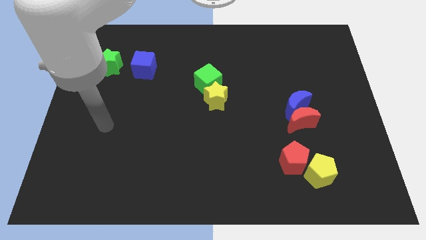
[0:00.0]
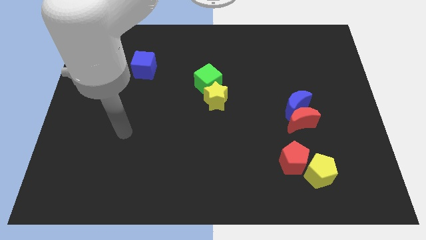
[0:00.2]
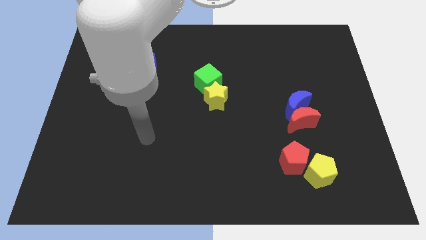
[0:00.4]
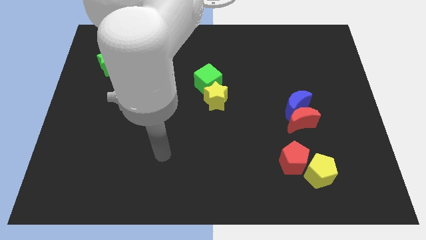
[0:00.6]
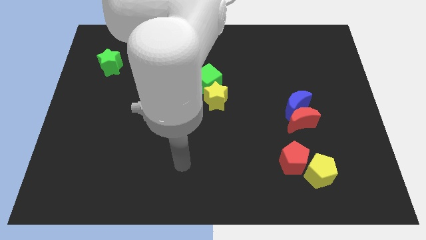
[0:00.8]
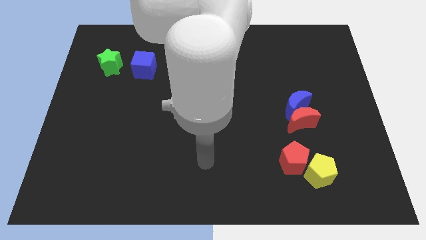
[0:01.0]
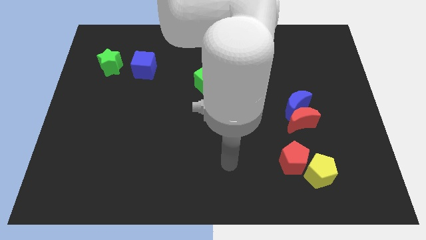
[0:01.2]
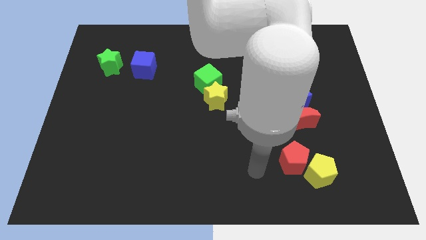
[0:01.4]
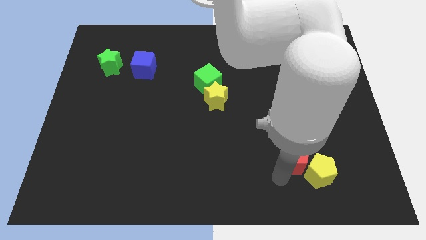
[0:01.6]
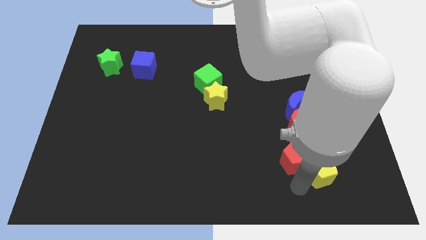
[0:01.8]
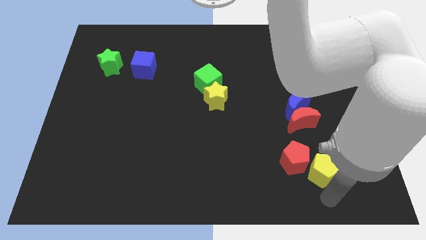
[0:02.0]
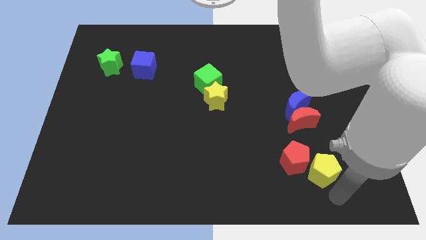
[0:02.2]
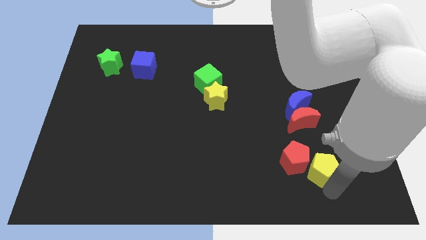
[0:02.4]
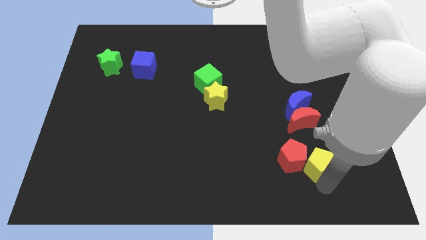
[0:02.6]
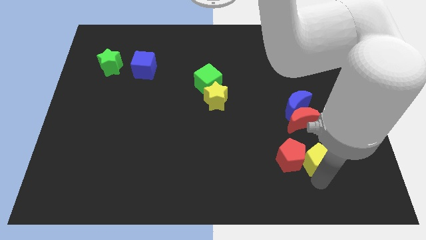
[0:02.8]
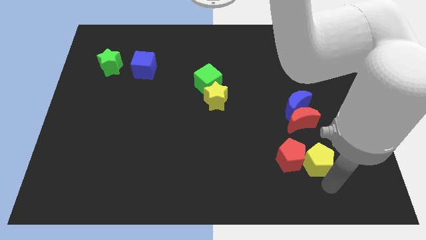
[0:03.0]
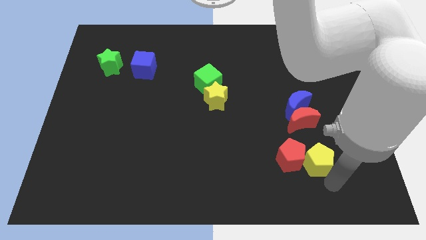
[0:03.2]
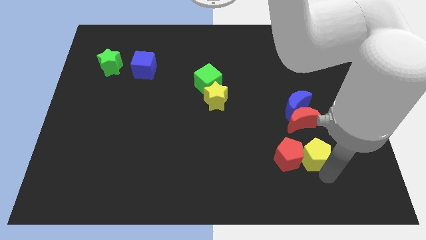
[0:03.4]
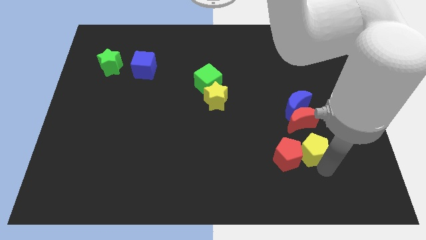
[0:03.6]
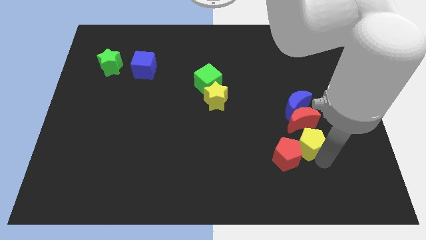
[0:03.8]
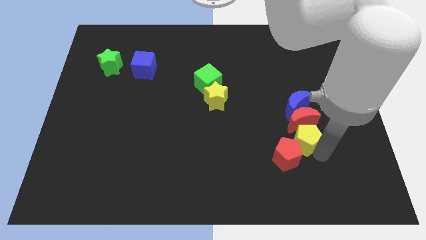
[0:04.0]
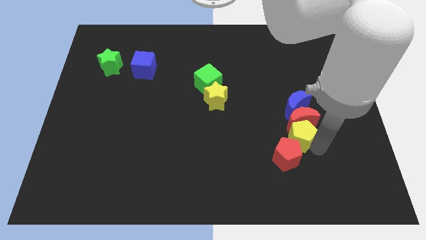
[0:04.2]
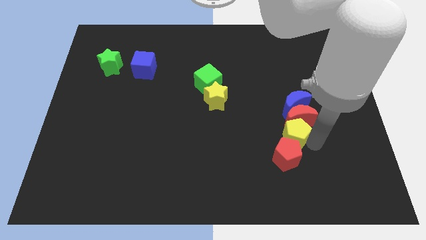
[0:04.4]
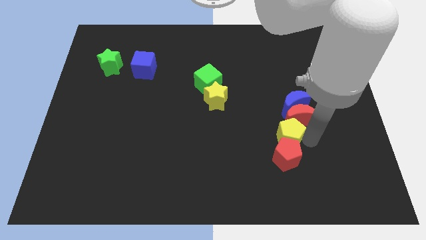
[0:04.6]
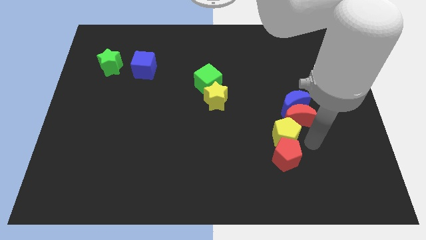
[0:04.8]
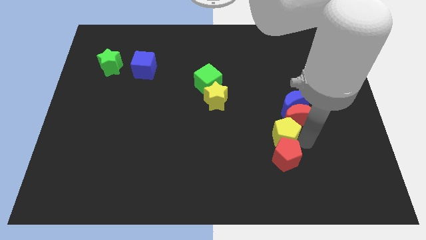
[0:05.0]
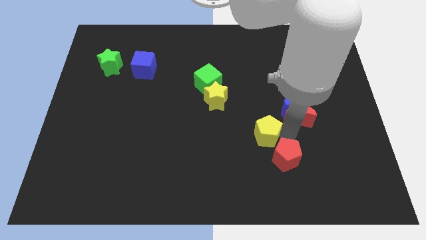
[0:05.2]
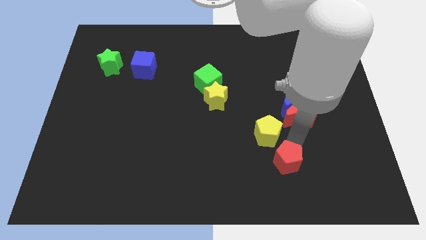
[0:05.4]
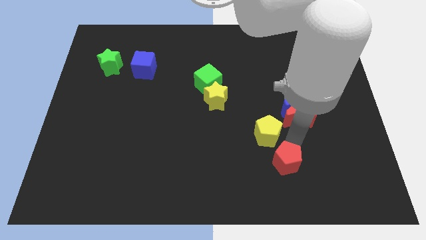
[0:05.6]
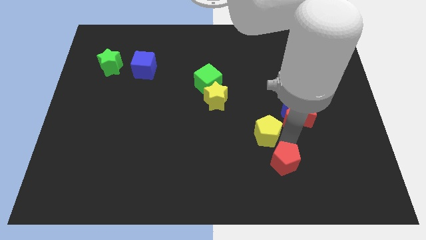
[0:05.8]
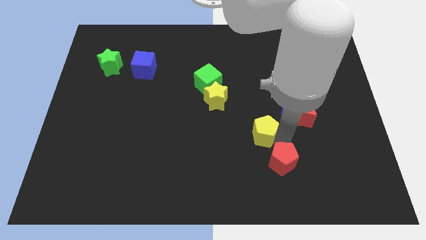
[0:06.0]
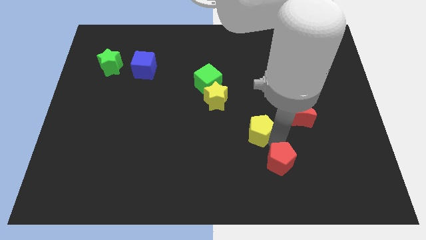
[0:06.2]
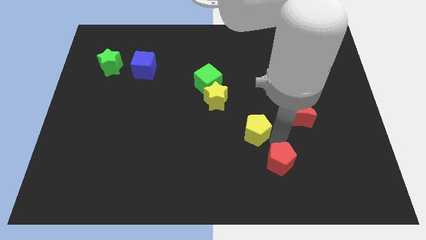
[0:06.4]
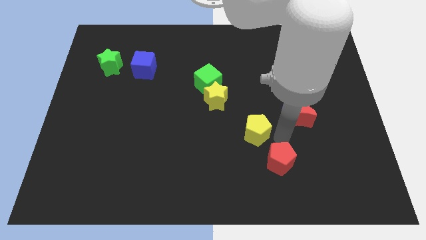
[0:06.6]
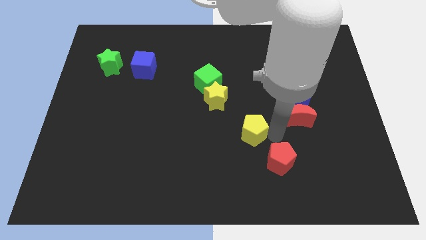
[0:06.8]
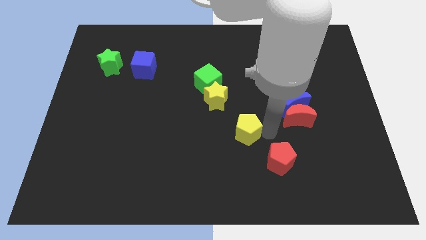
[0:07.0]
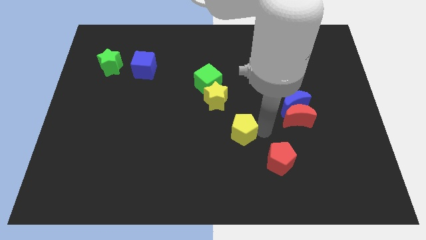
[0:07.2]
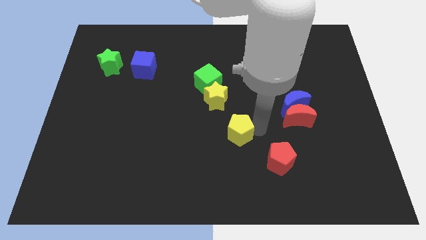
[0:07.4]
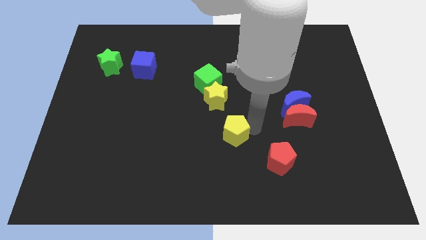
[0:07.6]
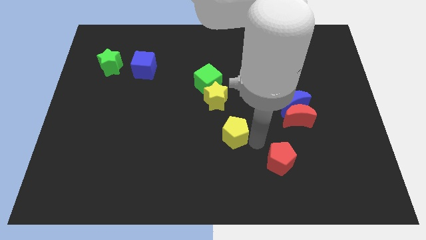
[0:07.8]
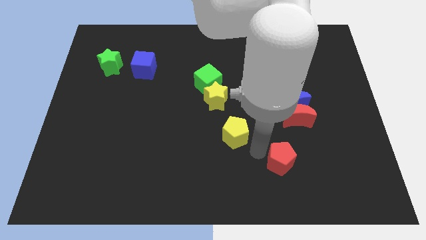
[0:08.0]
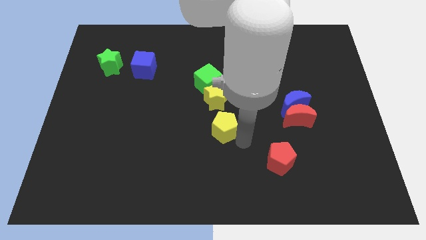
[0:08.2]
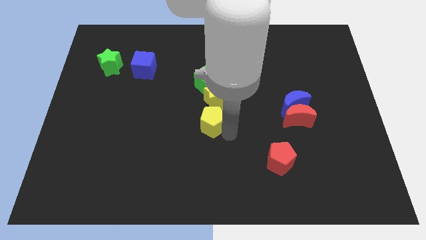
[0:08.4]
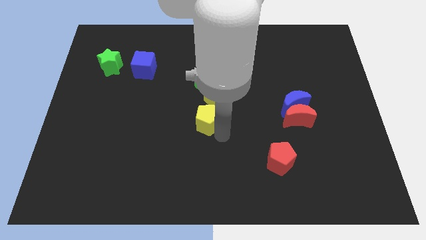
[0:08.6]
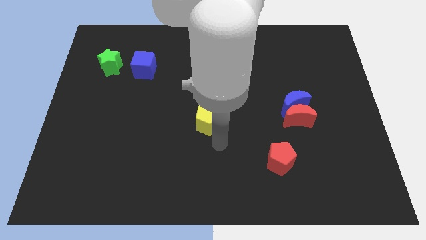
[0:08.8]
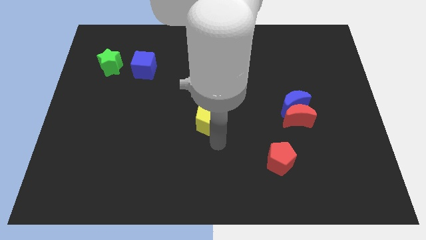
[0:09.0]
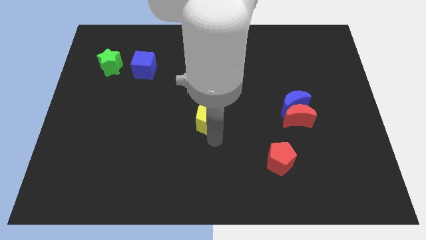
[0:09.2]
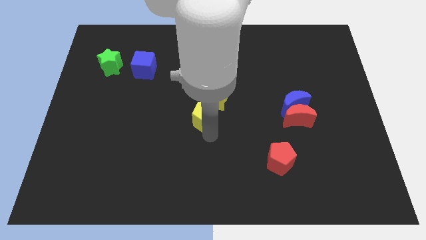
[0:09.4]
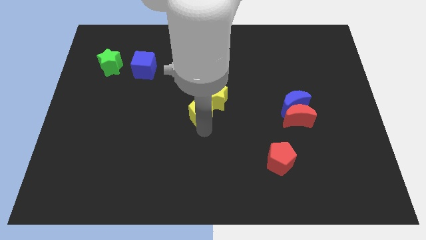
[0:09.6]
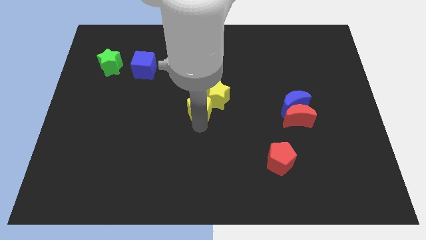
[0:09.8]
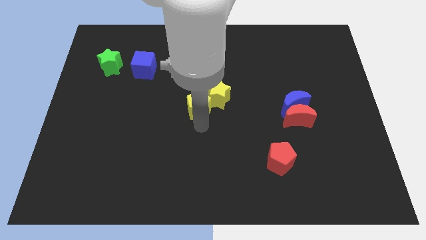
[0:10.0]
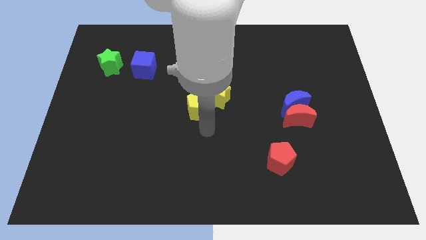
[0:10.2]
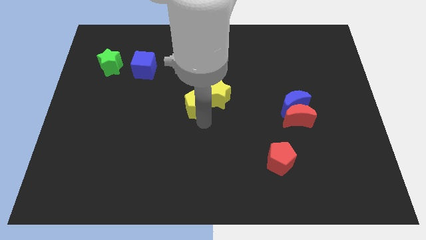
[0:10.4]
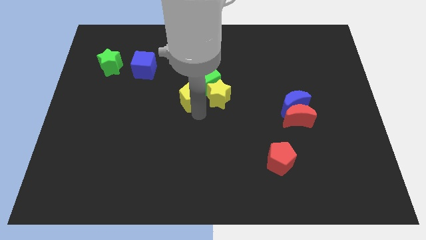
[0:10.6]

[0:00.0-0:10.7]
slide the yellow pentagon to the top left side of the yellow star
